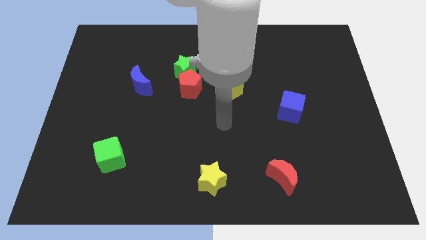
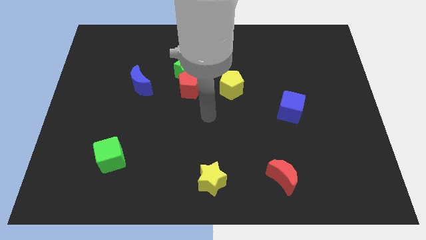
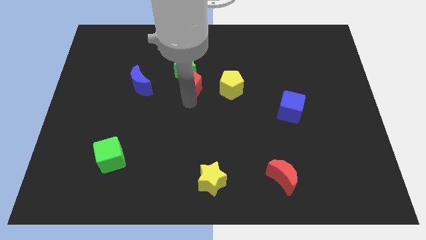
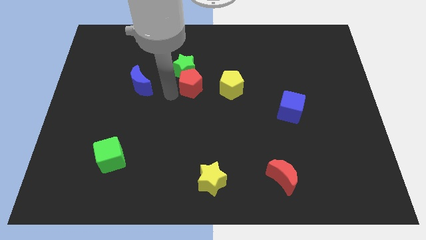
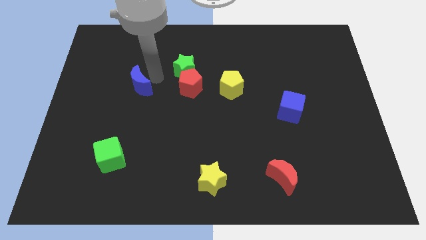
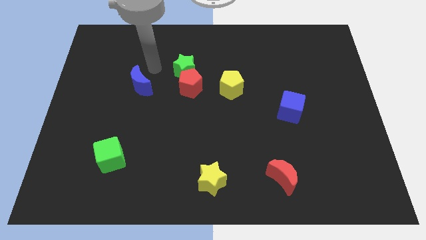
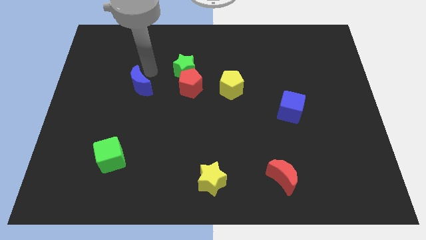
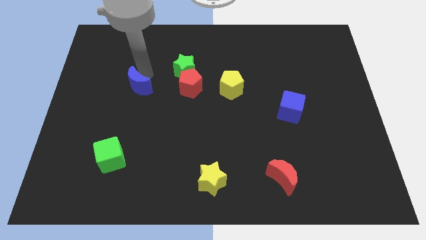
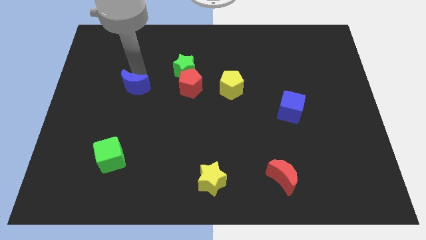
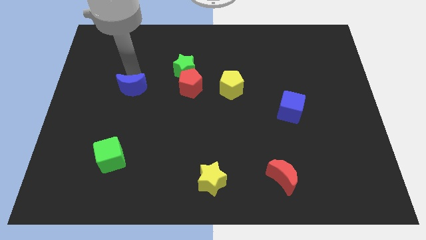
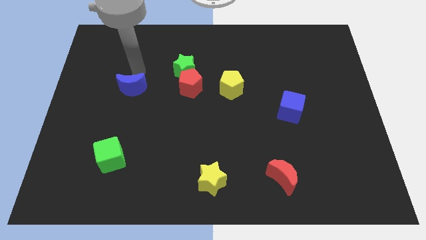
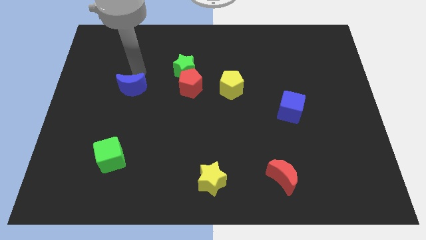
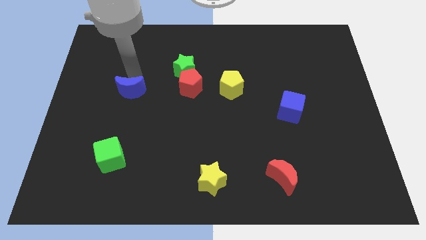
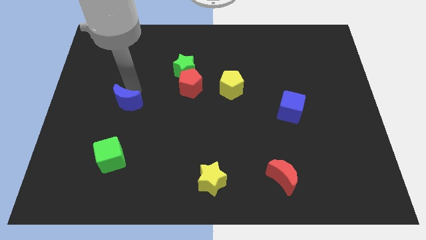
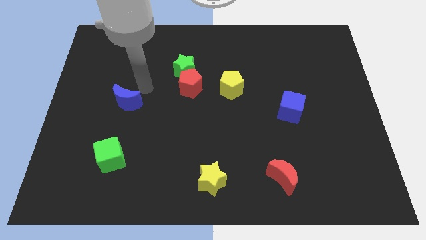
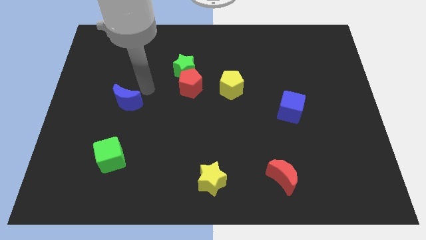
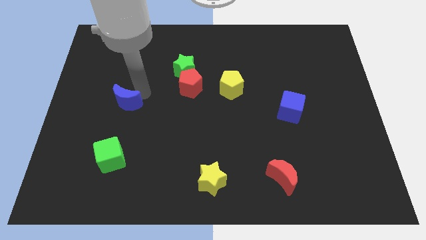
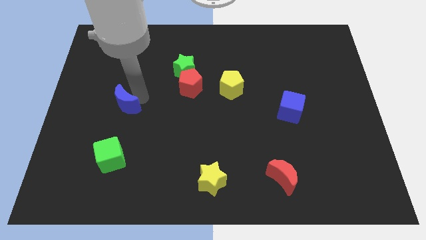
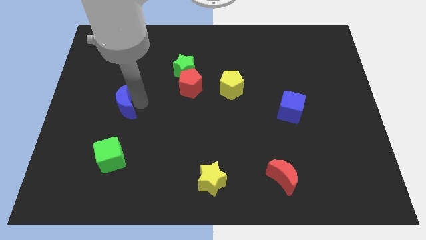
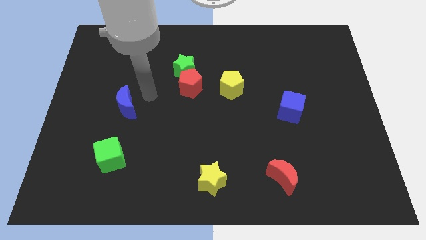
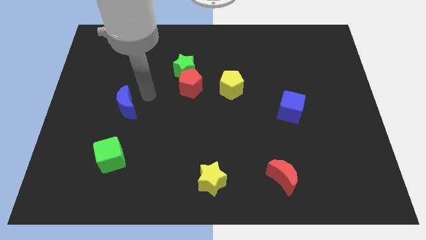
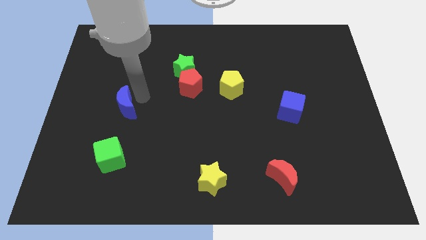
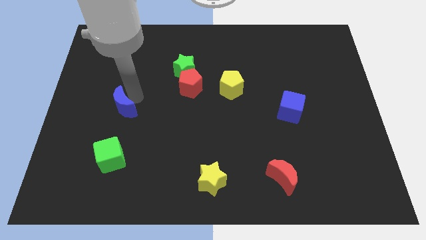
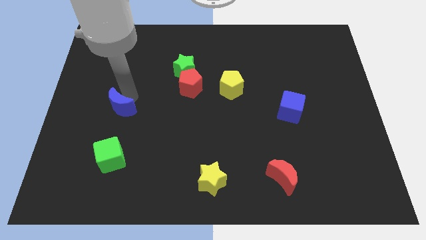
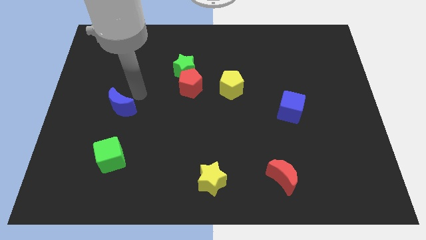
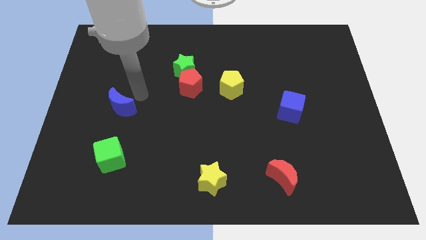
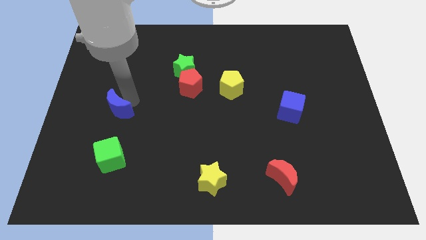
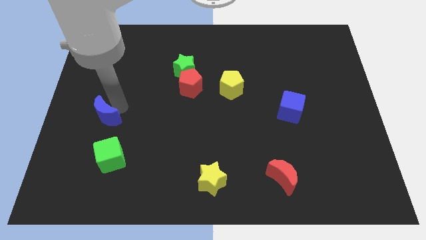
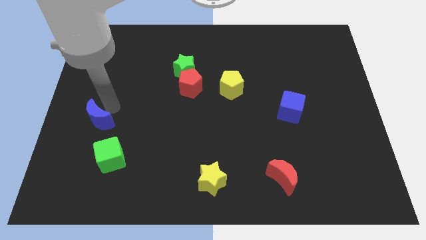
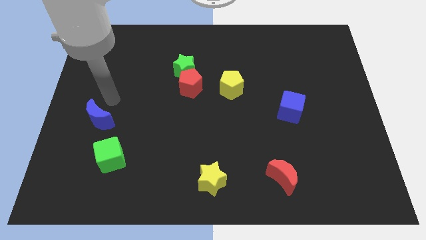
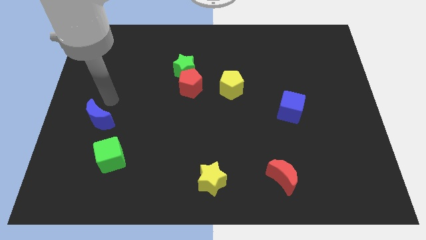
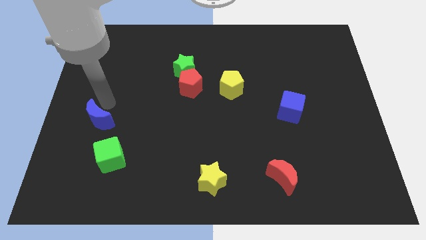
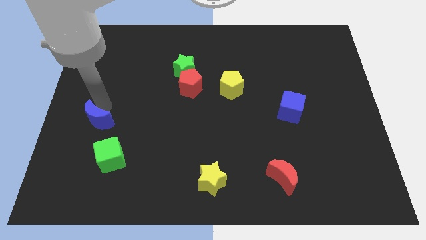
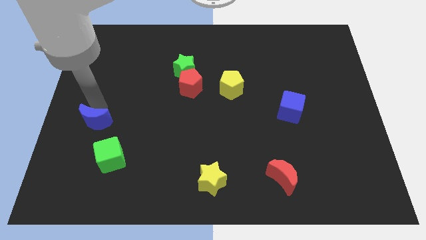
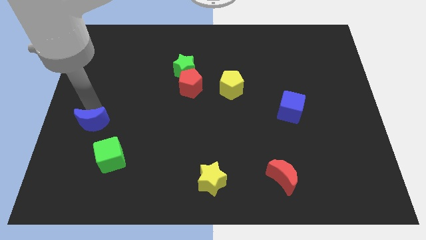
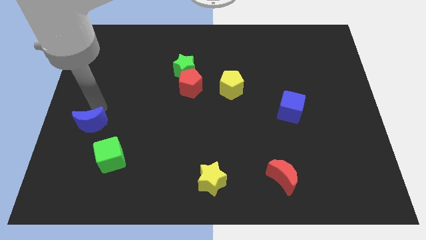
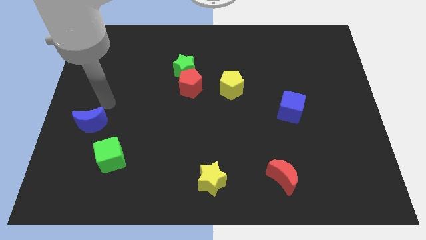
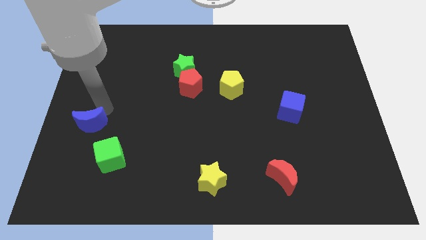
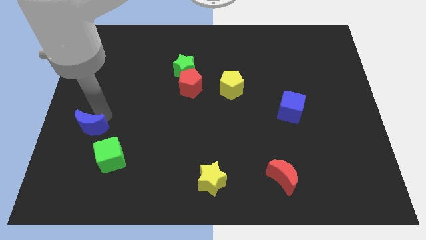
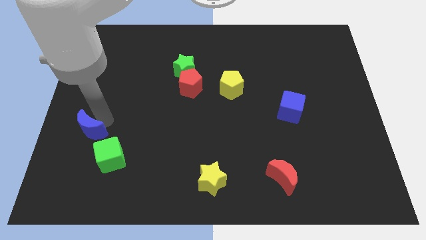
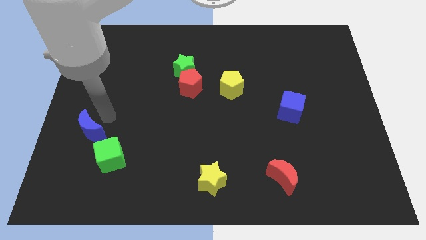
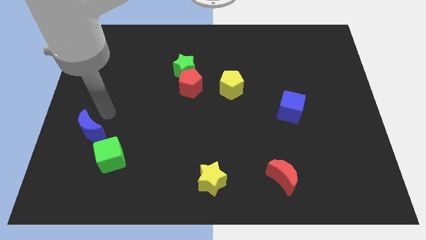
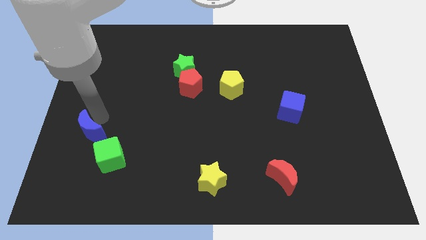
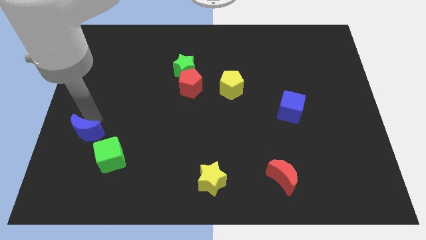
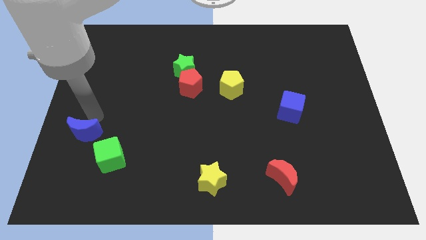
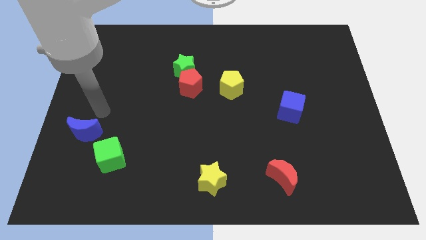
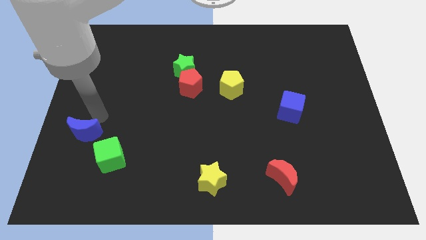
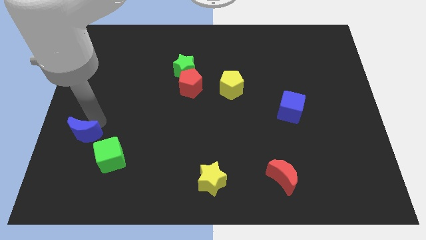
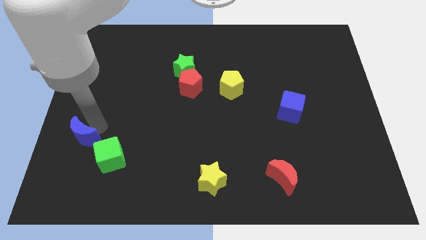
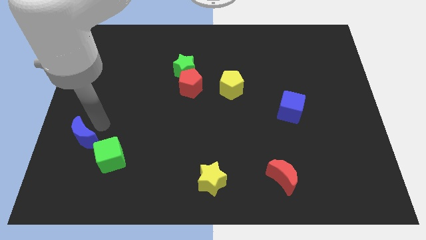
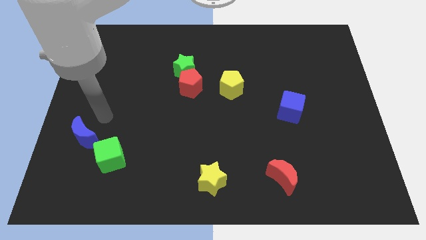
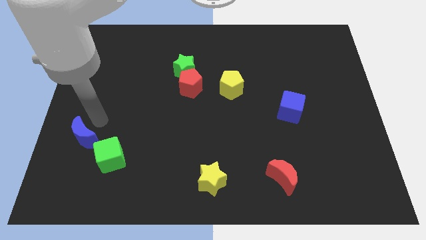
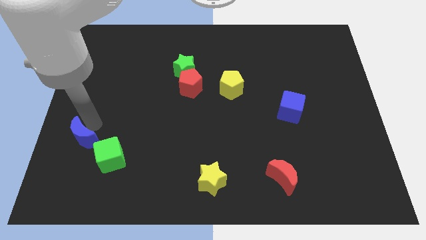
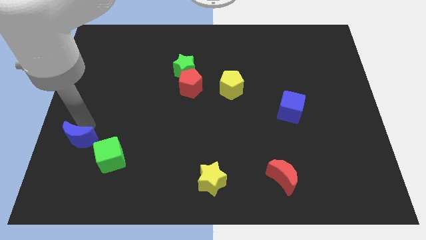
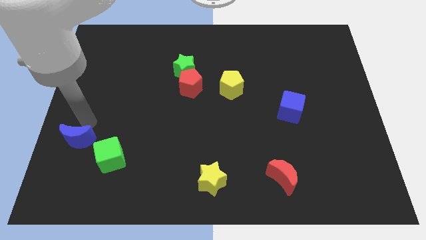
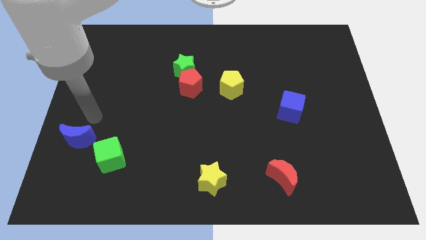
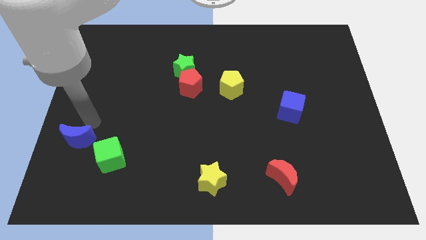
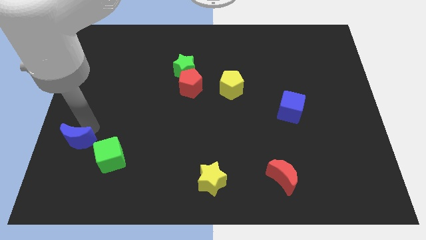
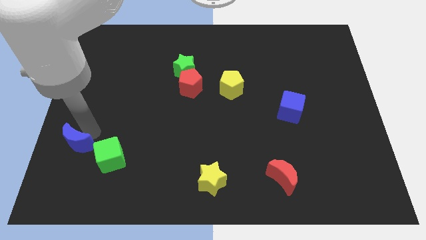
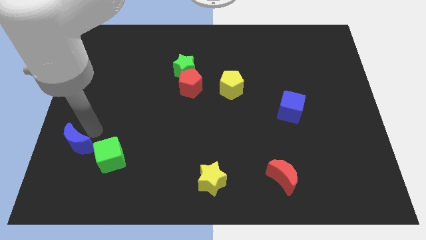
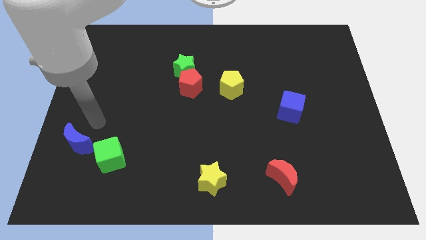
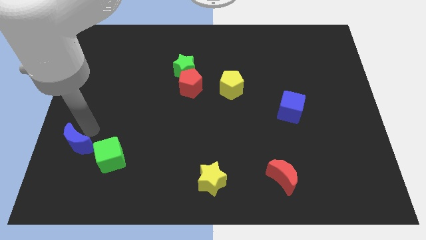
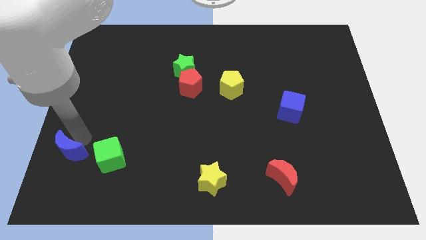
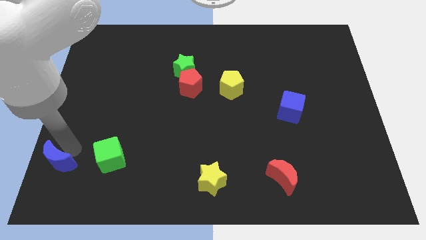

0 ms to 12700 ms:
slide the blue moon to the lower left corner

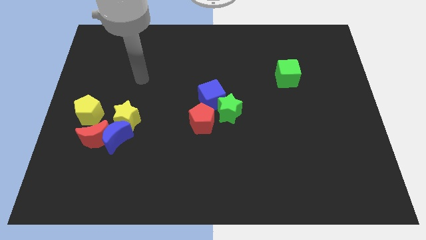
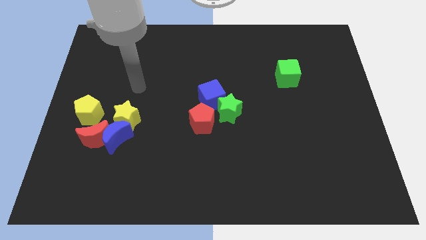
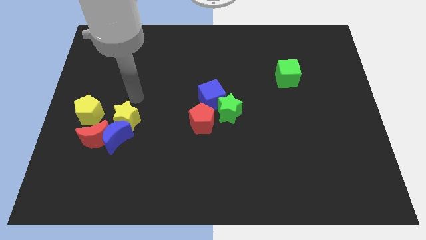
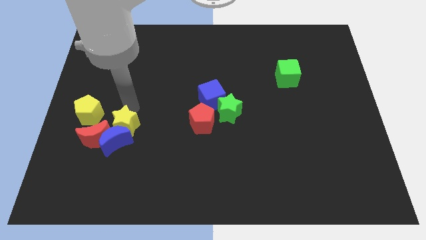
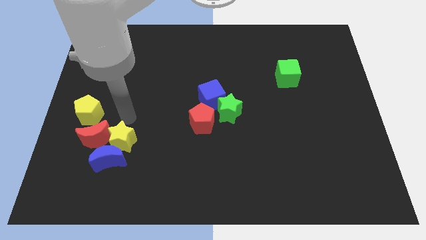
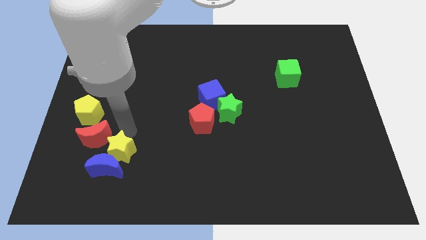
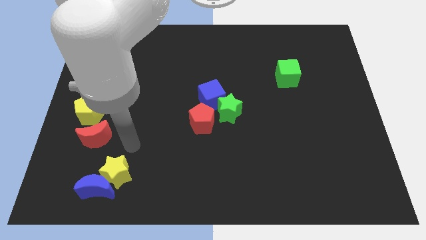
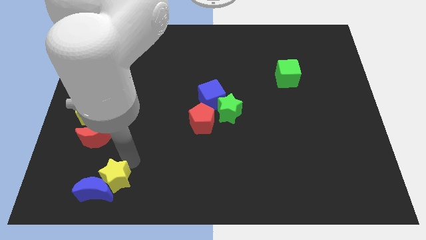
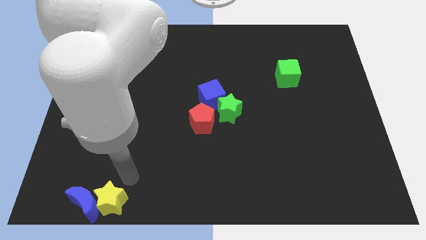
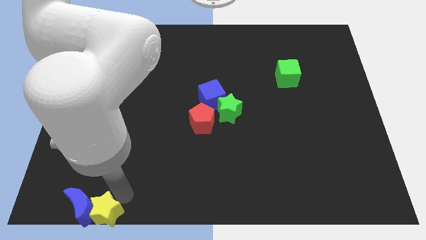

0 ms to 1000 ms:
push the blue moon to the bottom left
